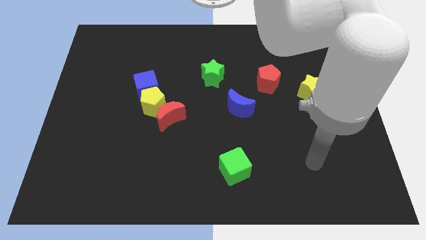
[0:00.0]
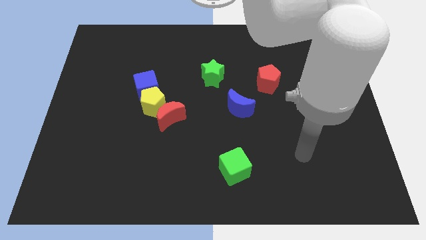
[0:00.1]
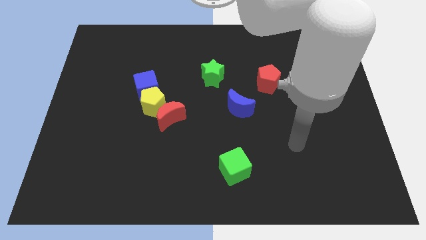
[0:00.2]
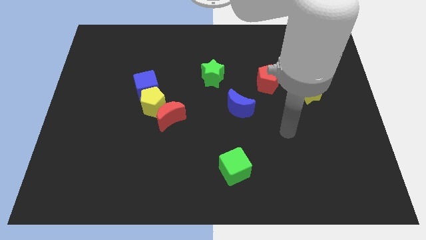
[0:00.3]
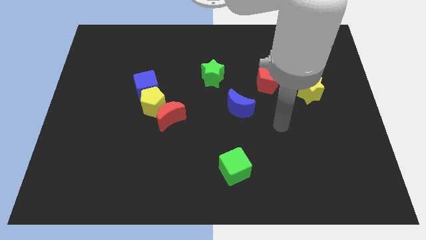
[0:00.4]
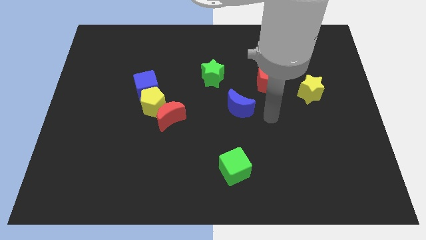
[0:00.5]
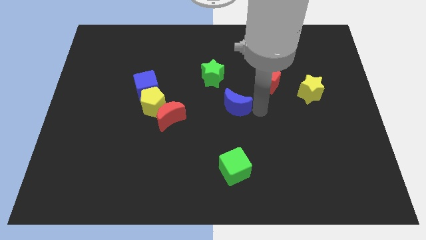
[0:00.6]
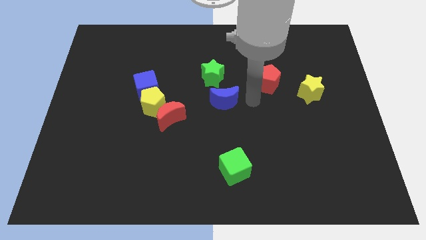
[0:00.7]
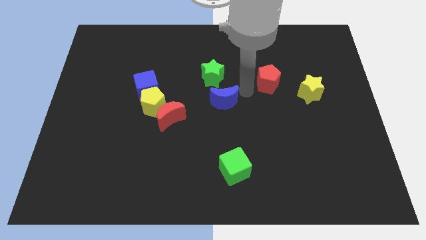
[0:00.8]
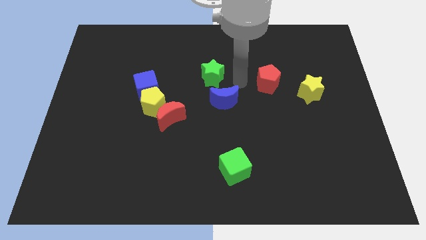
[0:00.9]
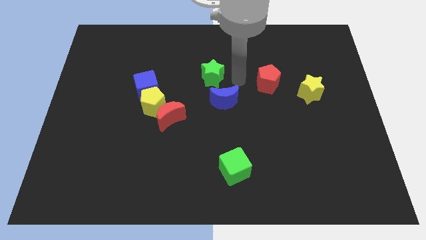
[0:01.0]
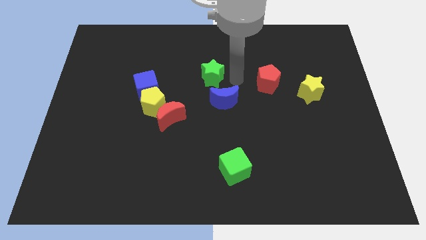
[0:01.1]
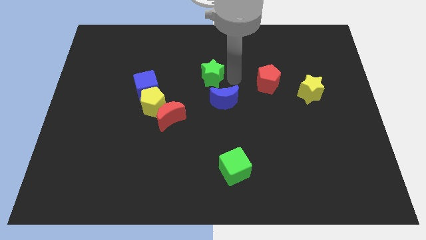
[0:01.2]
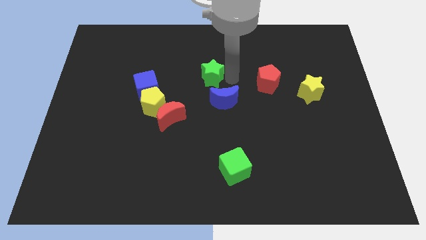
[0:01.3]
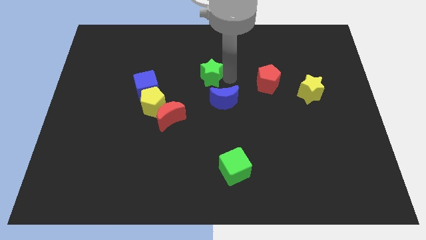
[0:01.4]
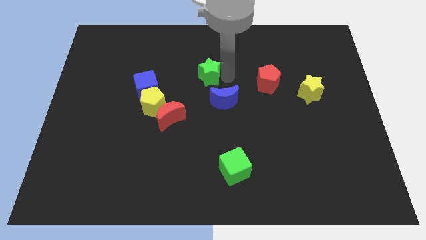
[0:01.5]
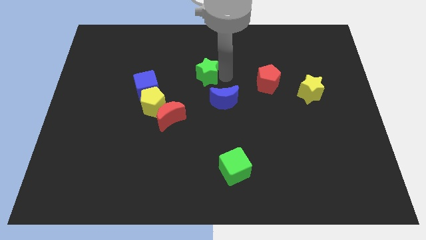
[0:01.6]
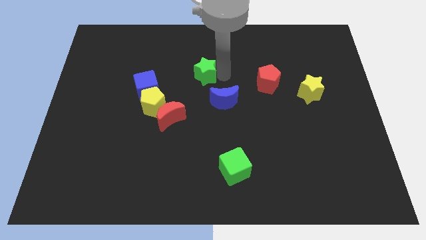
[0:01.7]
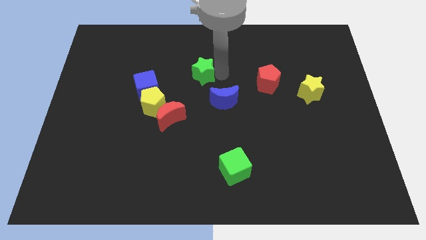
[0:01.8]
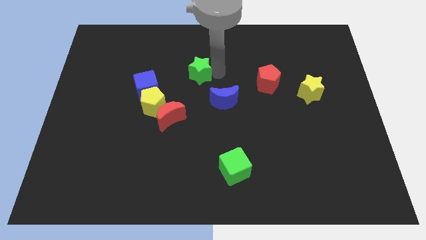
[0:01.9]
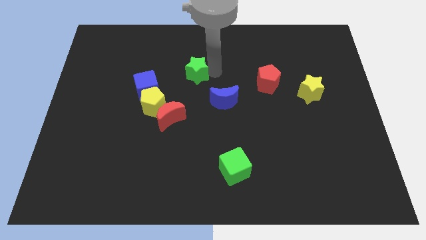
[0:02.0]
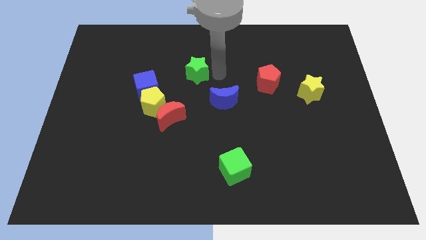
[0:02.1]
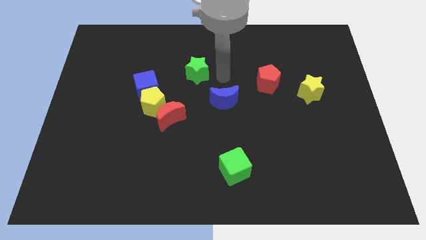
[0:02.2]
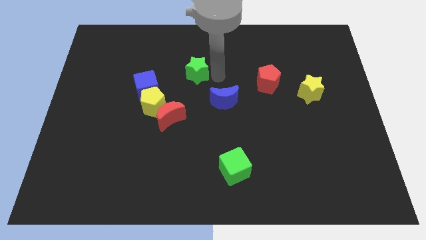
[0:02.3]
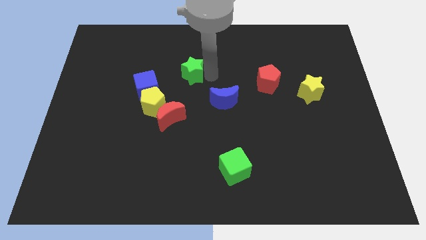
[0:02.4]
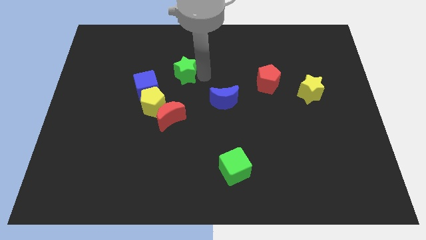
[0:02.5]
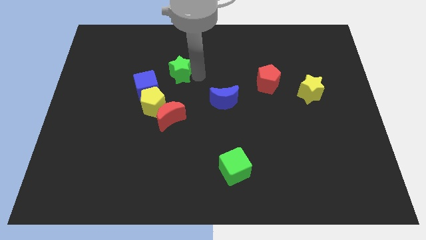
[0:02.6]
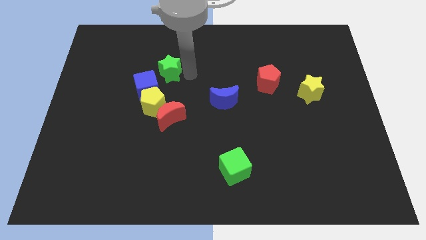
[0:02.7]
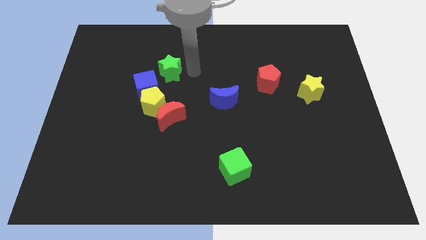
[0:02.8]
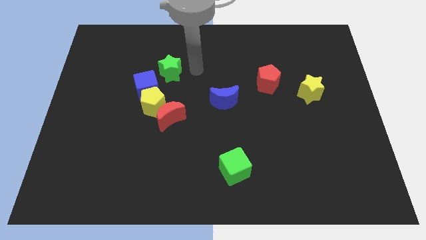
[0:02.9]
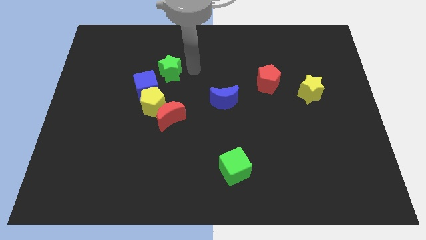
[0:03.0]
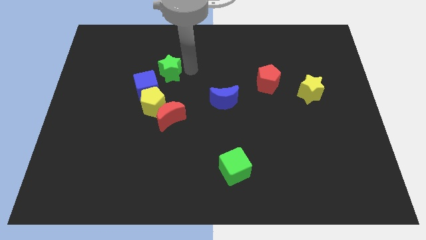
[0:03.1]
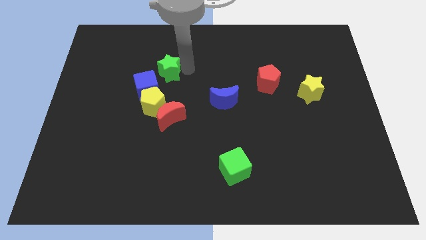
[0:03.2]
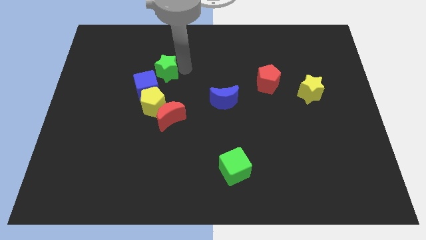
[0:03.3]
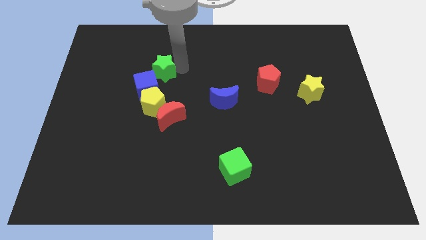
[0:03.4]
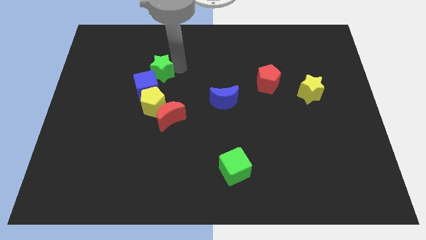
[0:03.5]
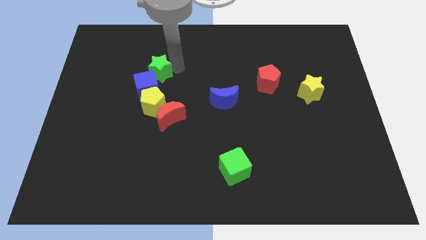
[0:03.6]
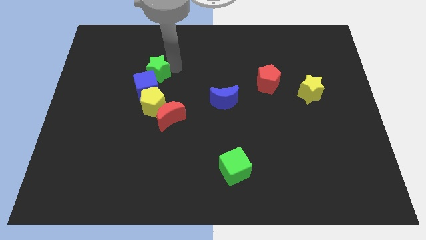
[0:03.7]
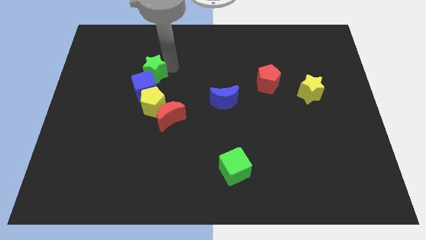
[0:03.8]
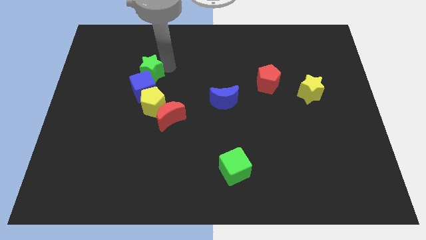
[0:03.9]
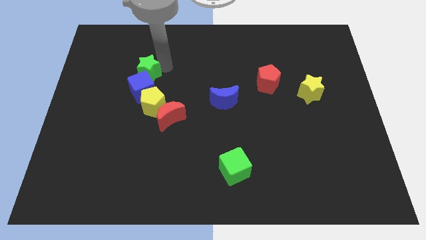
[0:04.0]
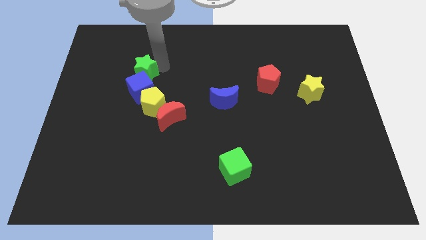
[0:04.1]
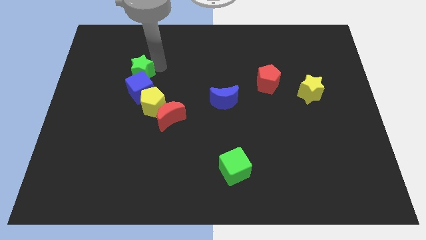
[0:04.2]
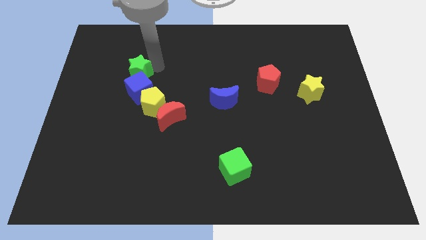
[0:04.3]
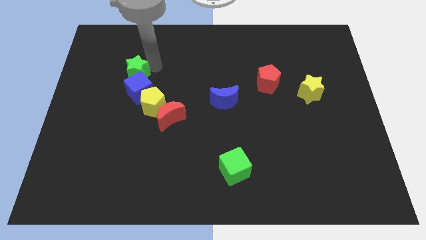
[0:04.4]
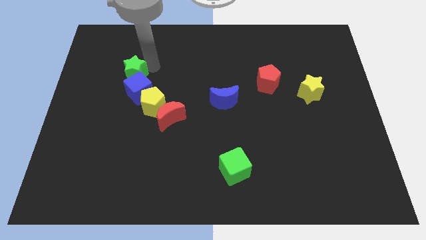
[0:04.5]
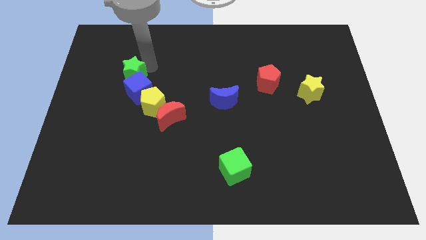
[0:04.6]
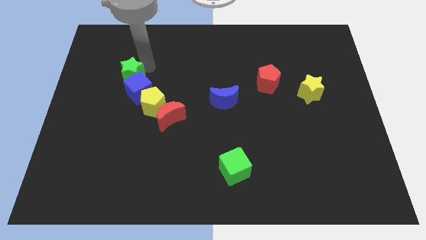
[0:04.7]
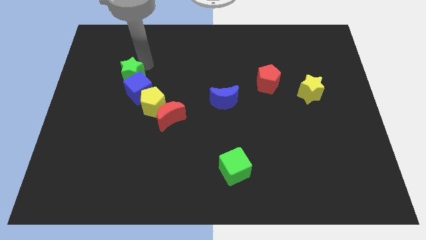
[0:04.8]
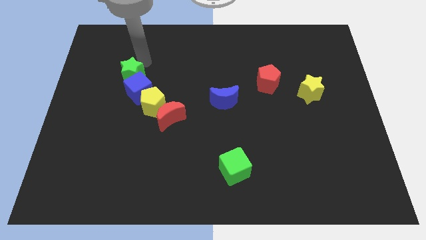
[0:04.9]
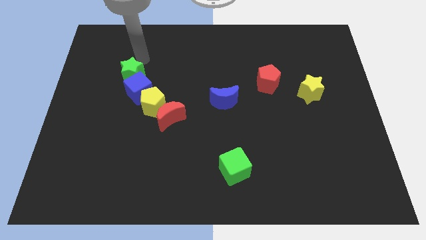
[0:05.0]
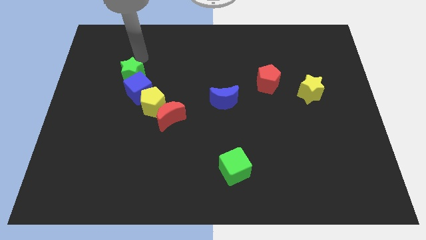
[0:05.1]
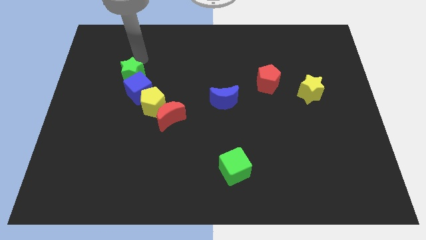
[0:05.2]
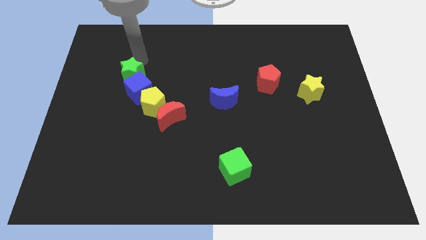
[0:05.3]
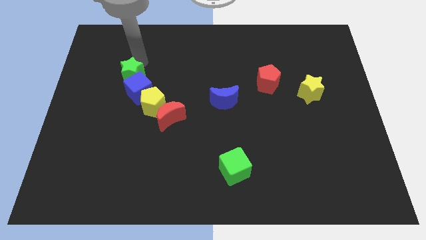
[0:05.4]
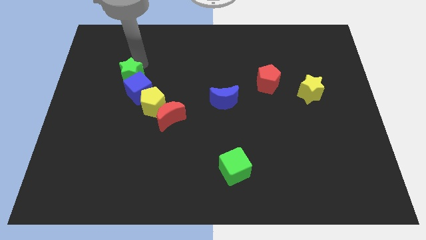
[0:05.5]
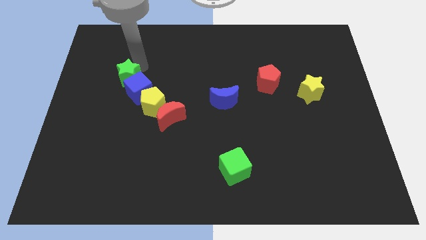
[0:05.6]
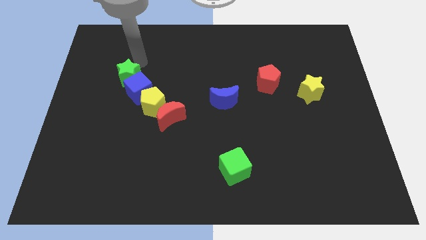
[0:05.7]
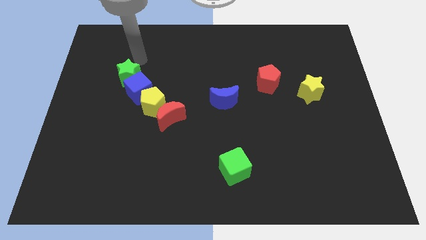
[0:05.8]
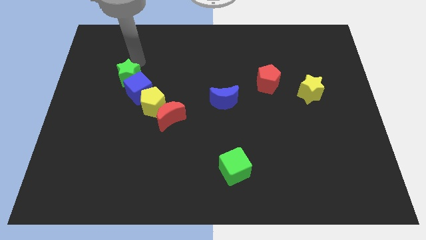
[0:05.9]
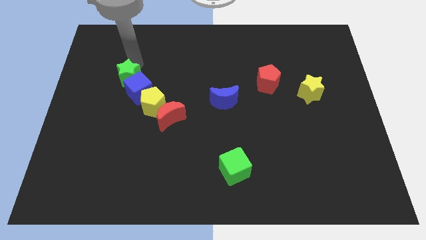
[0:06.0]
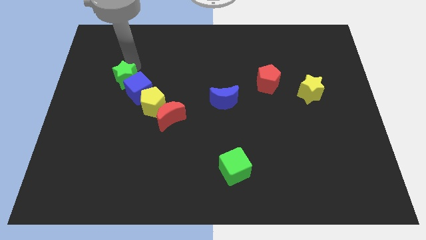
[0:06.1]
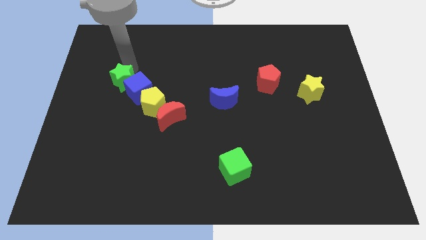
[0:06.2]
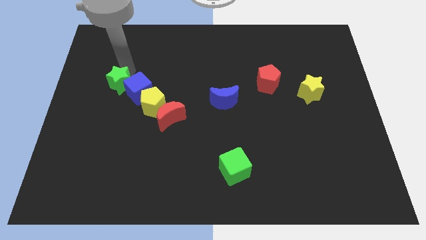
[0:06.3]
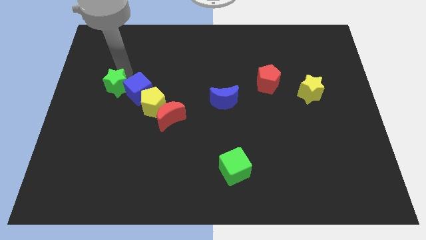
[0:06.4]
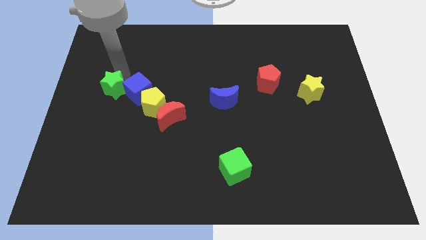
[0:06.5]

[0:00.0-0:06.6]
put the green star to the bottom left of the blue cube

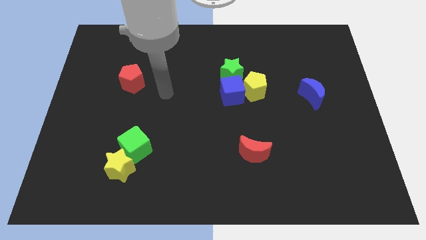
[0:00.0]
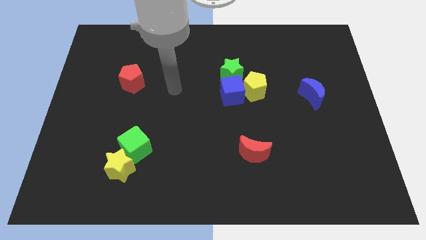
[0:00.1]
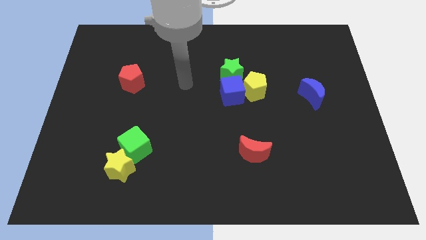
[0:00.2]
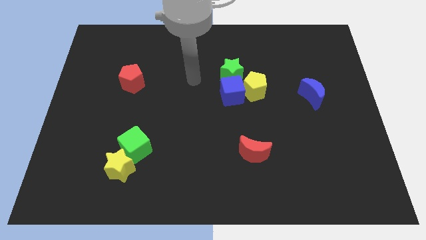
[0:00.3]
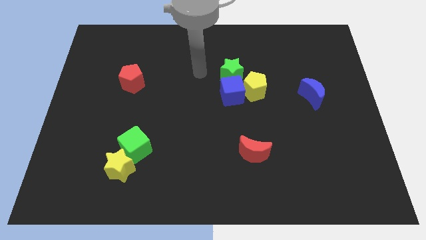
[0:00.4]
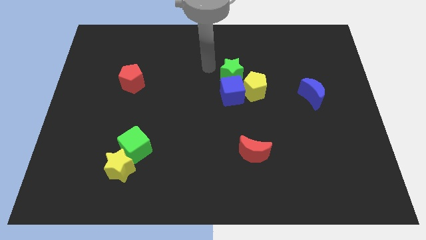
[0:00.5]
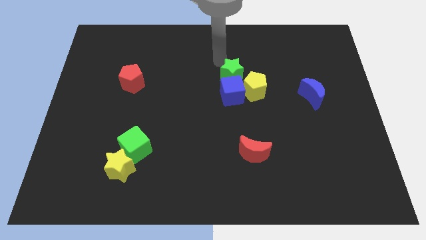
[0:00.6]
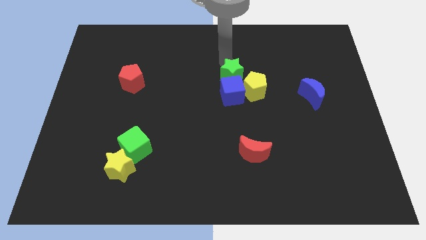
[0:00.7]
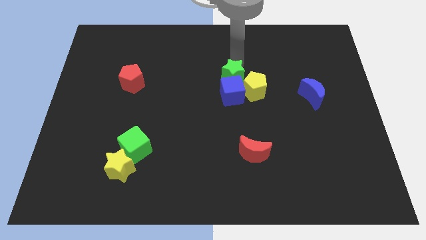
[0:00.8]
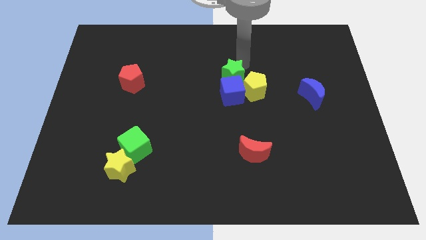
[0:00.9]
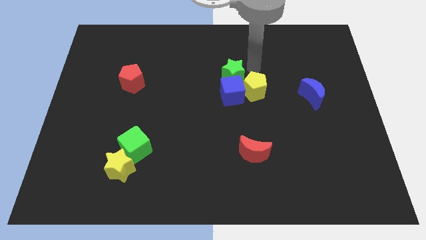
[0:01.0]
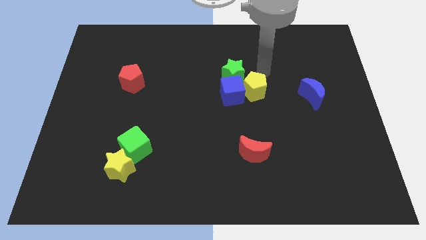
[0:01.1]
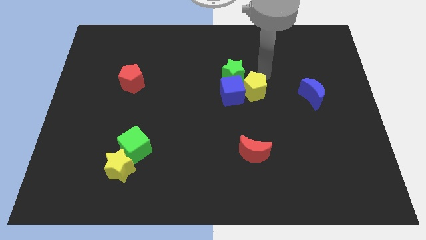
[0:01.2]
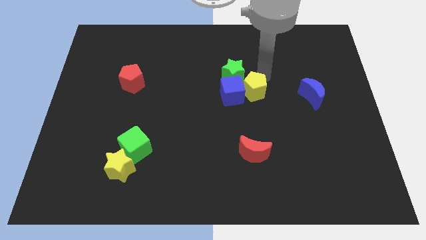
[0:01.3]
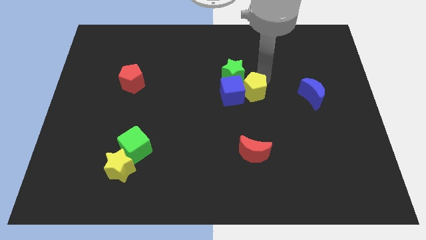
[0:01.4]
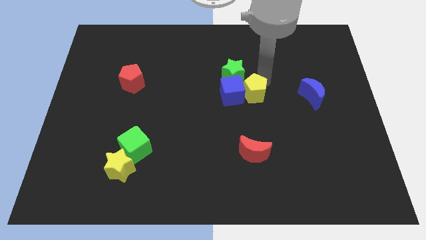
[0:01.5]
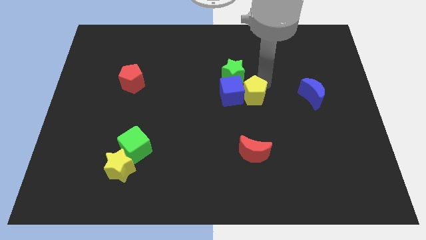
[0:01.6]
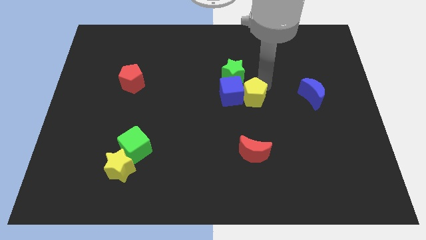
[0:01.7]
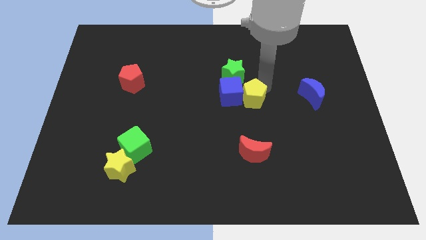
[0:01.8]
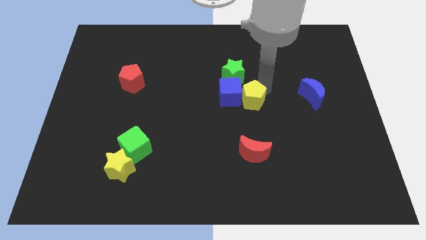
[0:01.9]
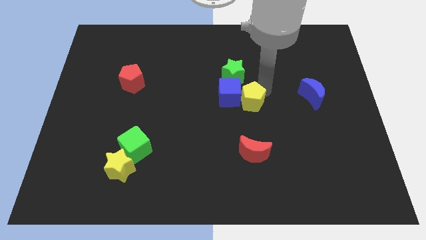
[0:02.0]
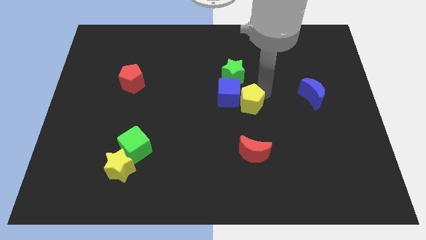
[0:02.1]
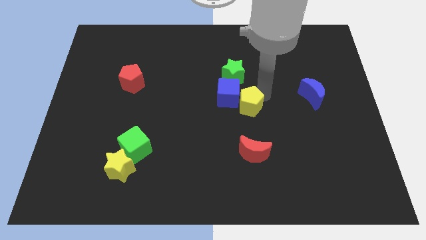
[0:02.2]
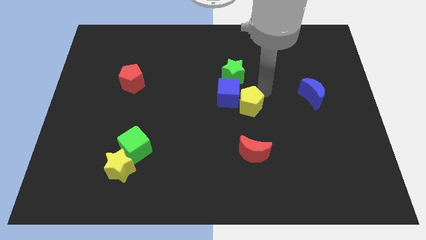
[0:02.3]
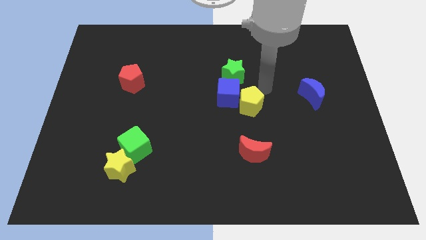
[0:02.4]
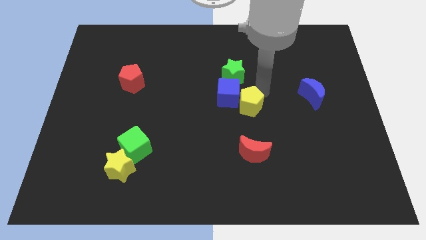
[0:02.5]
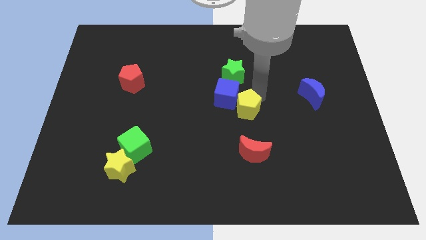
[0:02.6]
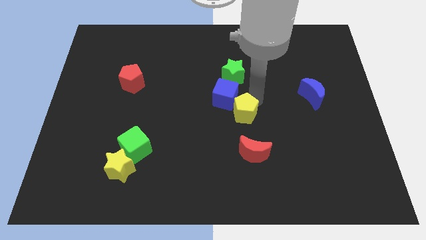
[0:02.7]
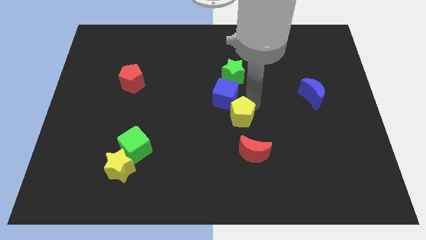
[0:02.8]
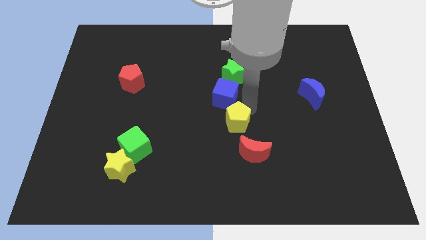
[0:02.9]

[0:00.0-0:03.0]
move the yellow pentagon to the top left side of the red moon
